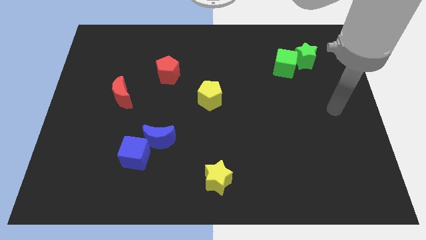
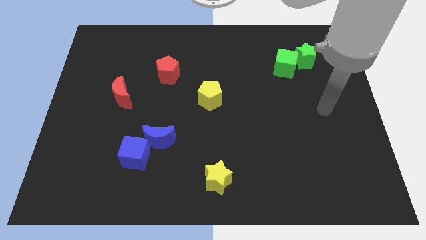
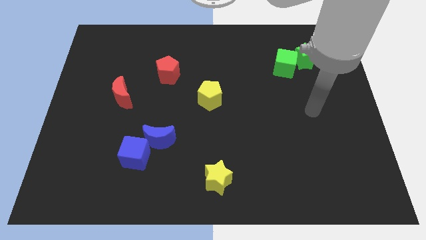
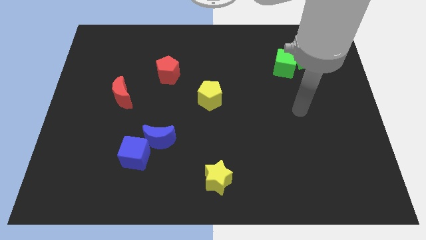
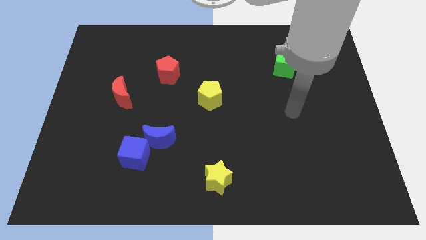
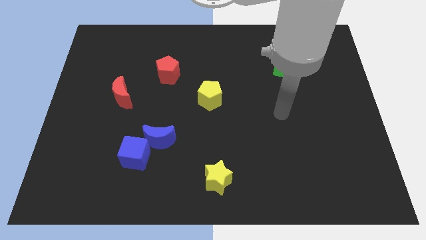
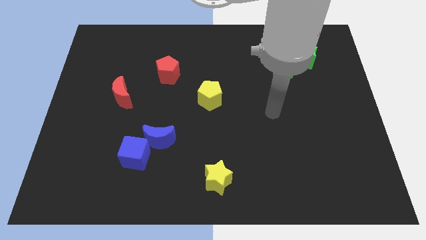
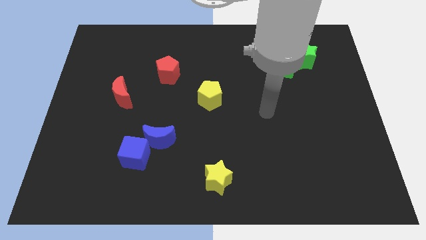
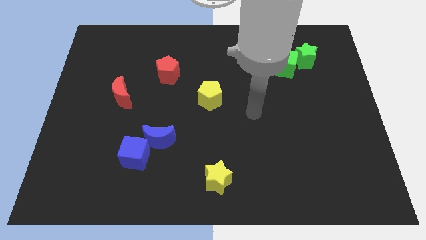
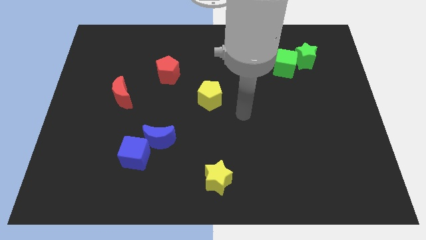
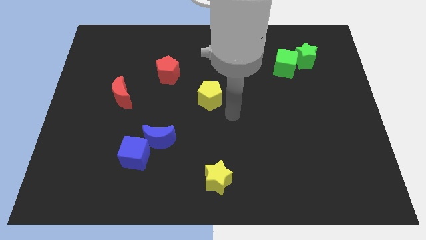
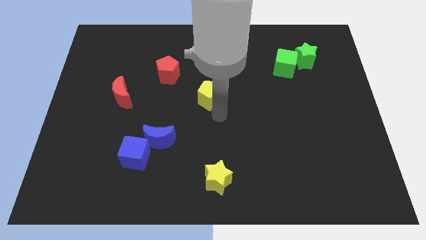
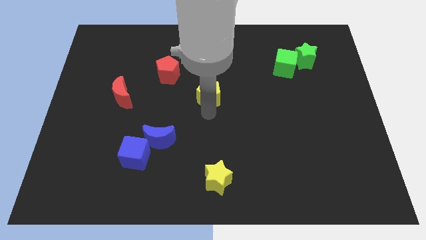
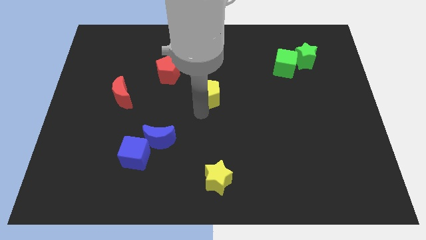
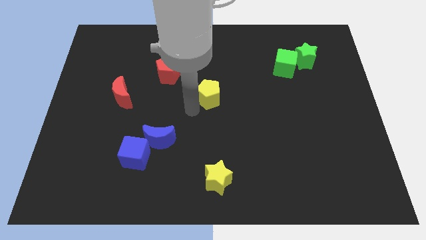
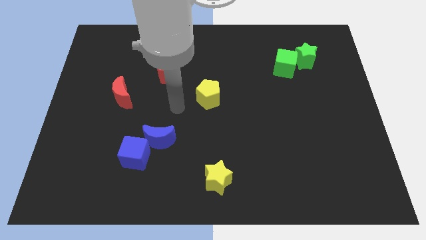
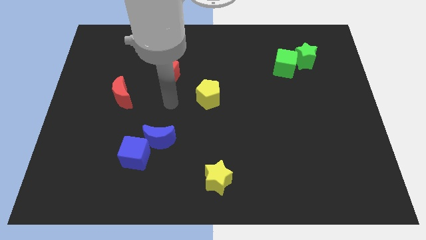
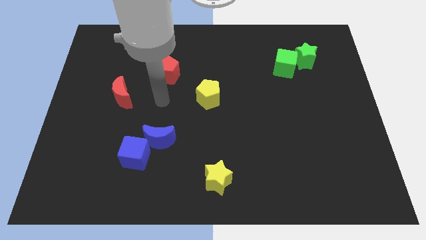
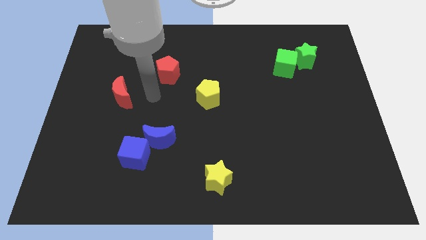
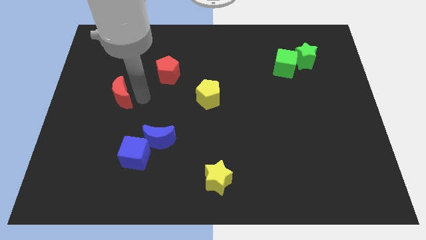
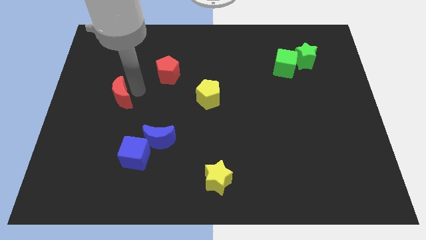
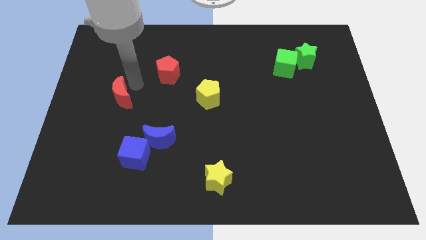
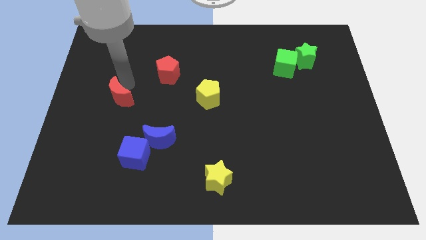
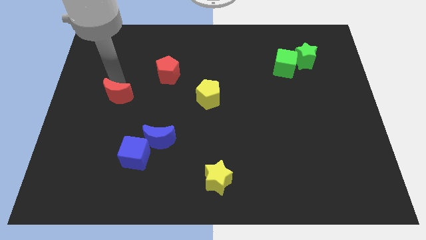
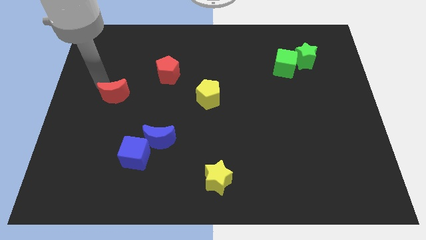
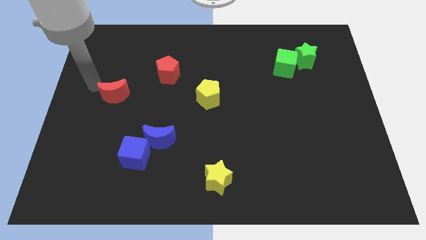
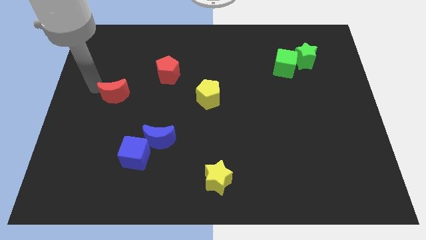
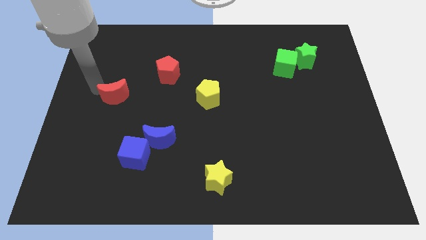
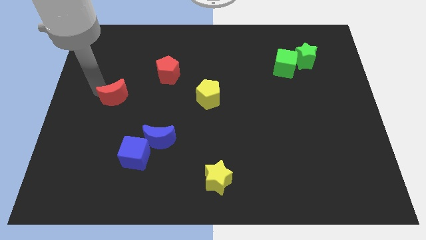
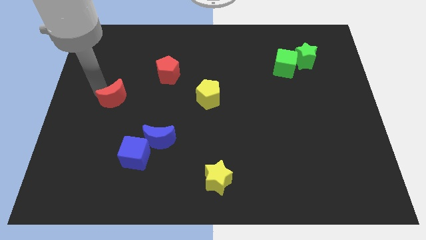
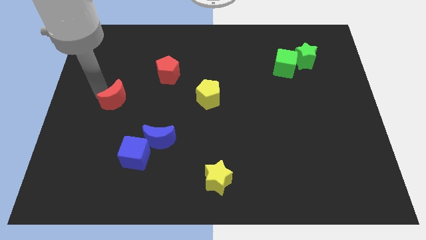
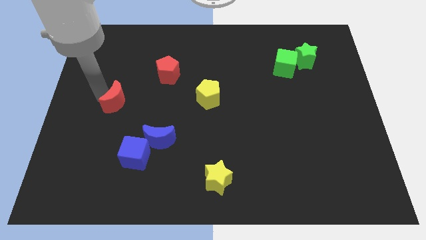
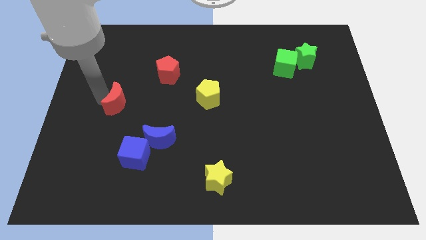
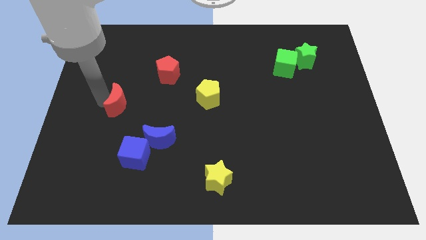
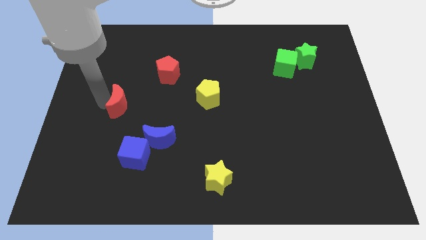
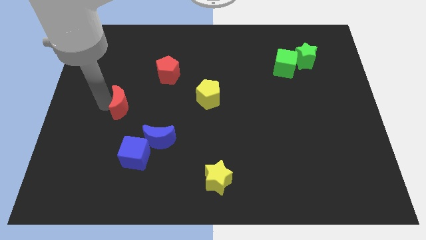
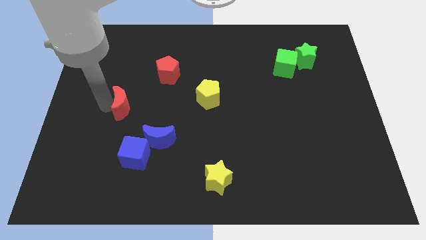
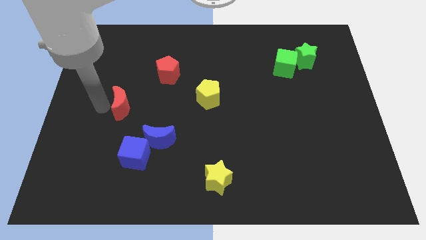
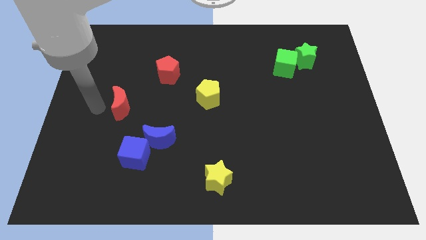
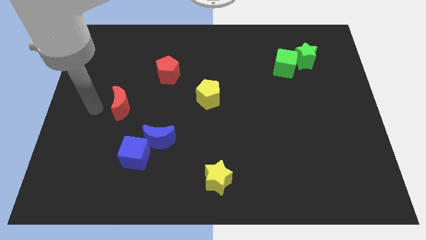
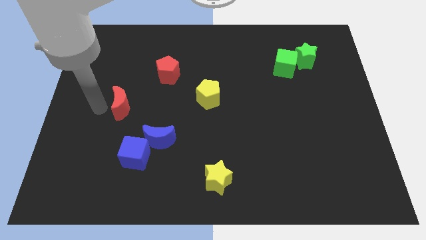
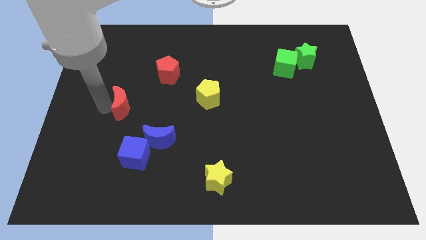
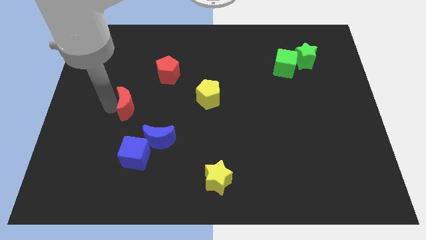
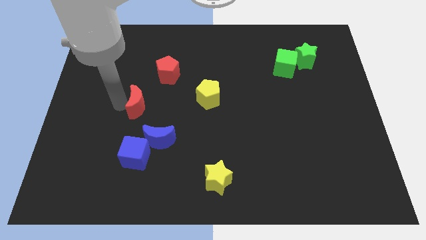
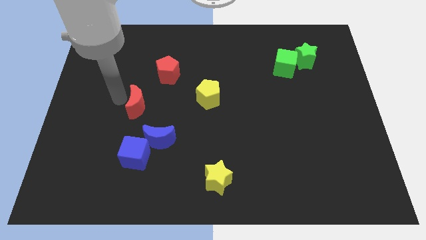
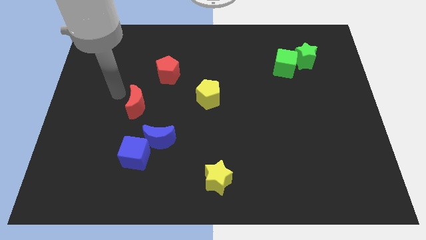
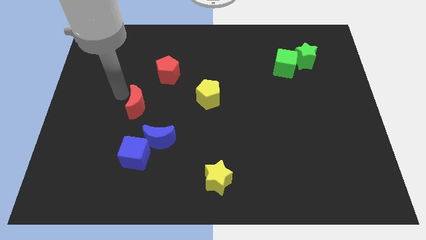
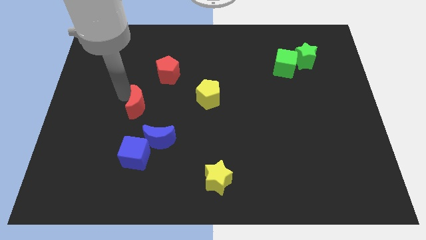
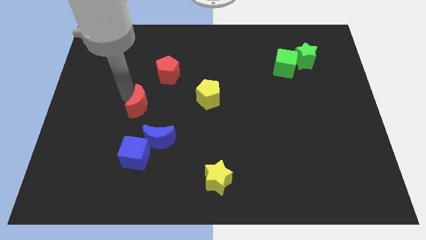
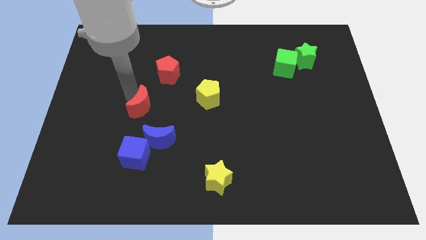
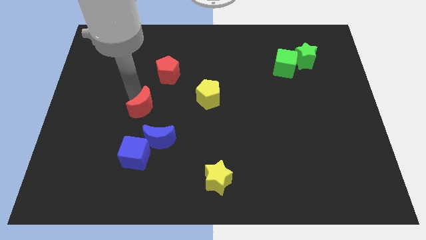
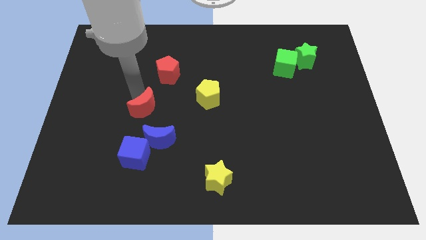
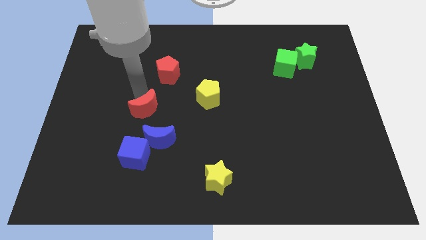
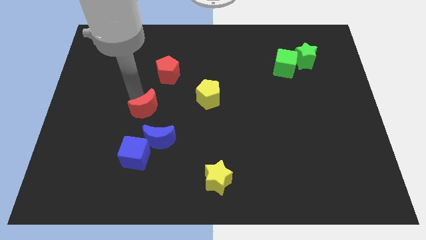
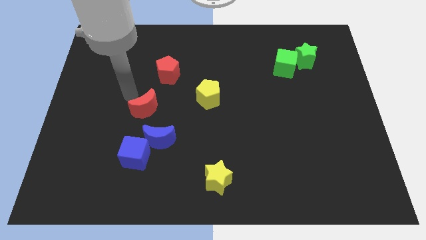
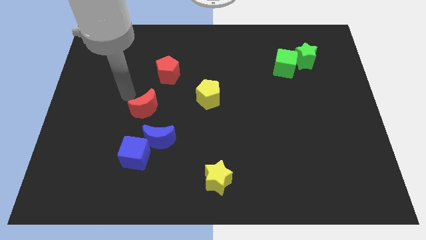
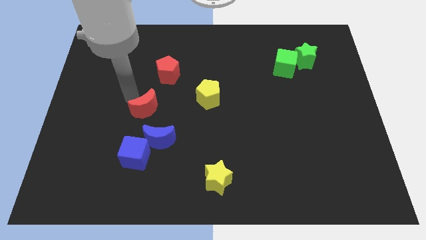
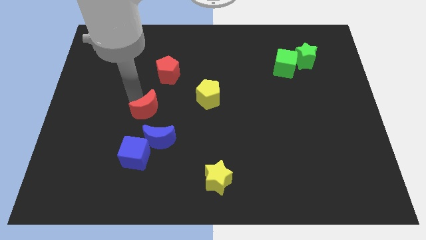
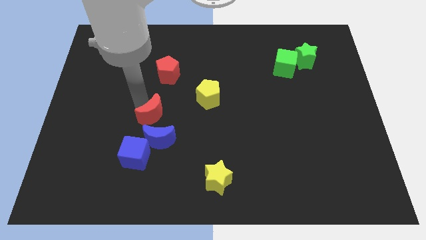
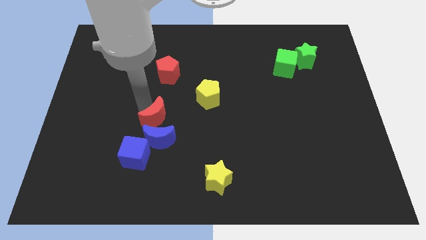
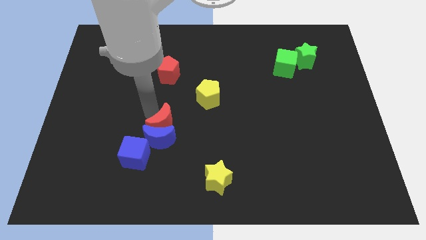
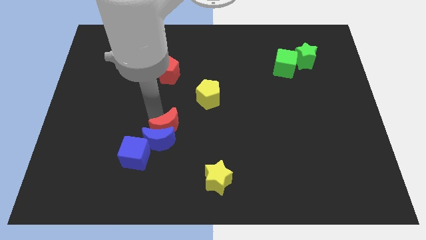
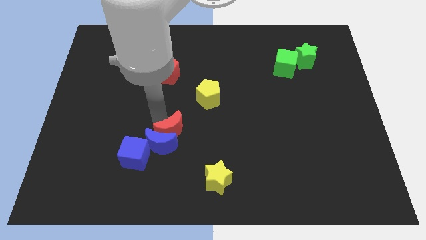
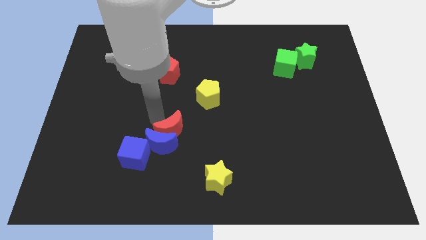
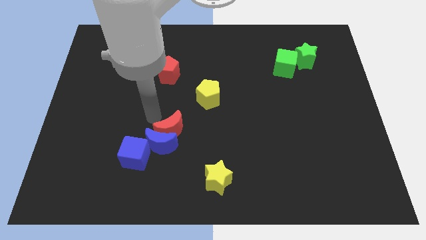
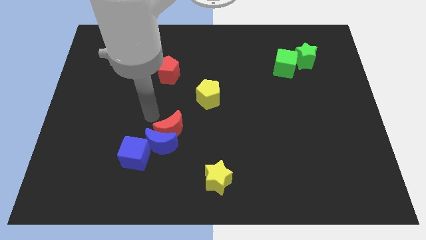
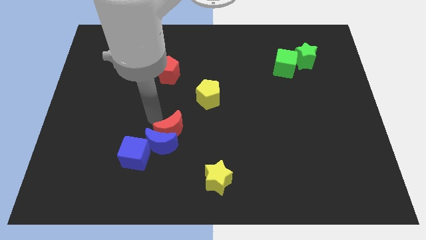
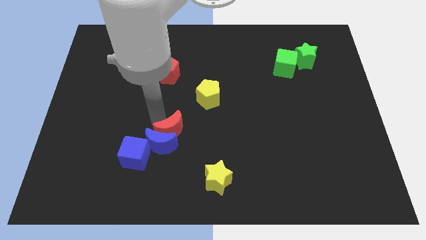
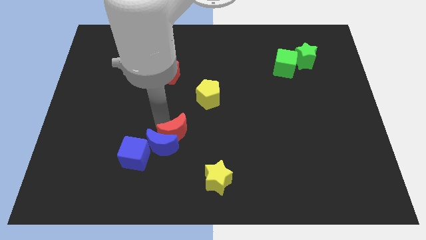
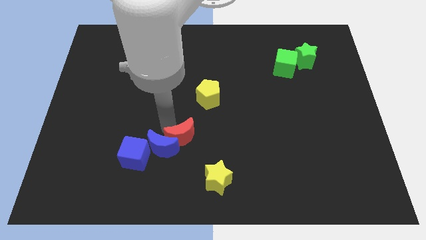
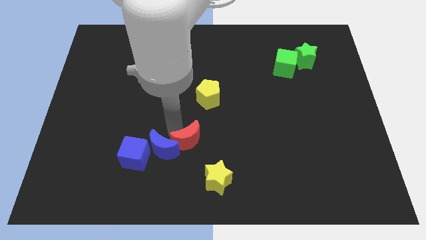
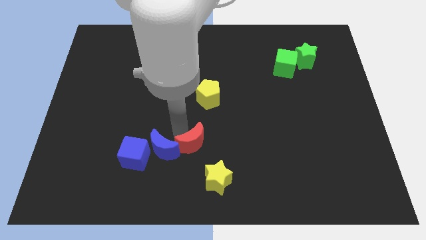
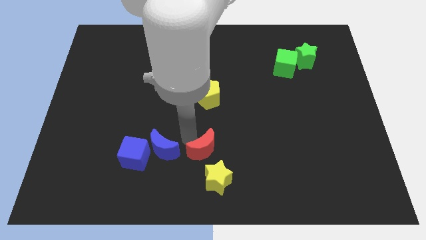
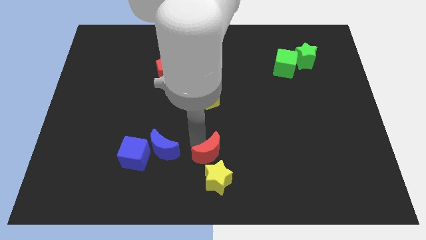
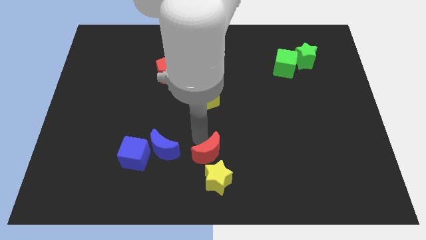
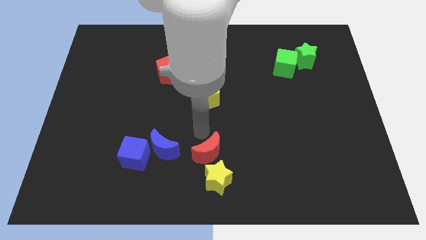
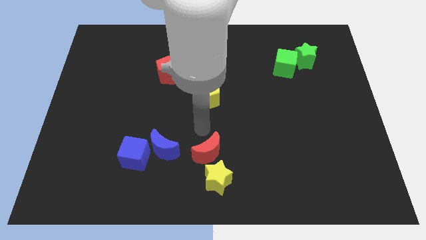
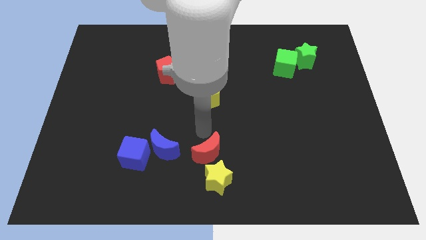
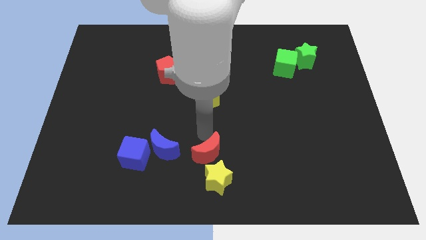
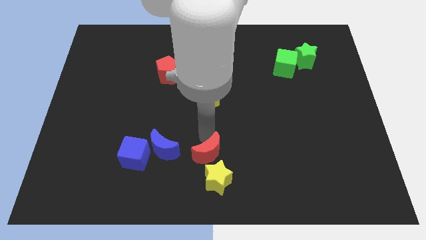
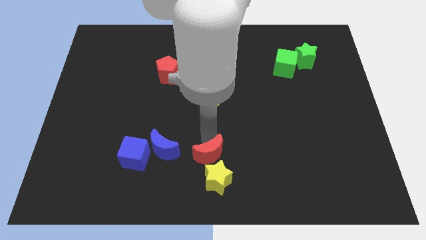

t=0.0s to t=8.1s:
slide the red moon next to the yellow star
